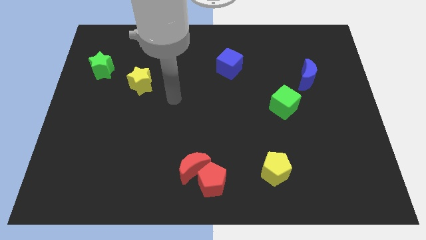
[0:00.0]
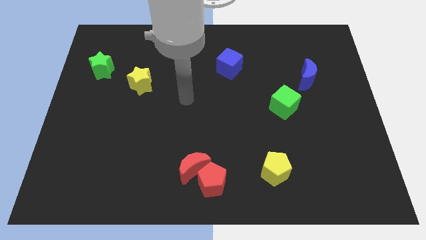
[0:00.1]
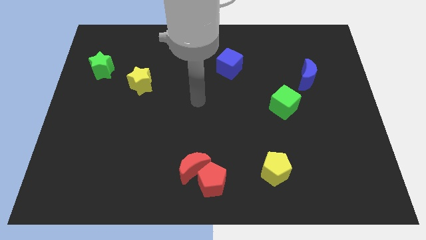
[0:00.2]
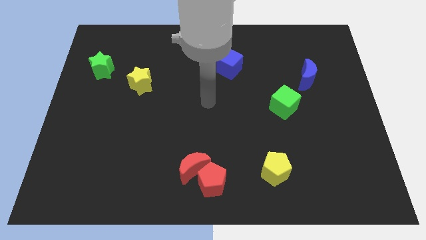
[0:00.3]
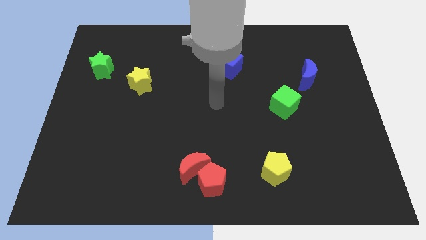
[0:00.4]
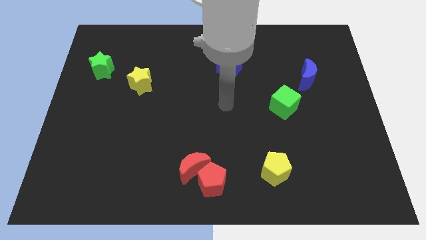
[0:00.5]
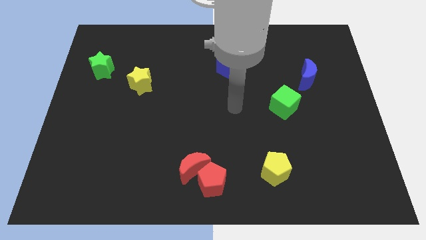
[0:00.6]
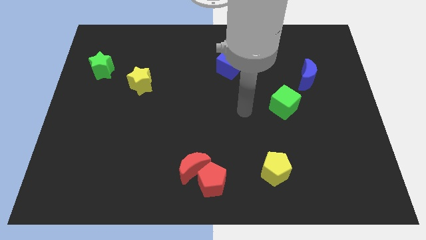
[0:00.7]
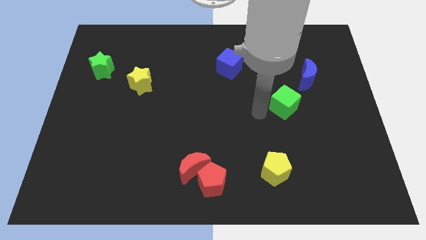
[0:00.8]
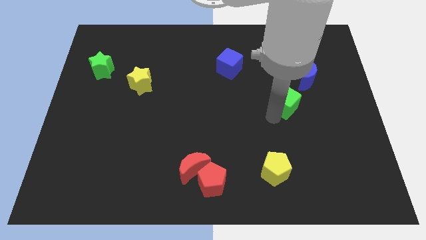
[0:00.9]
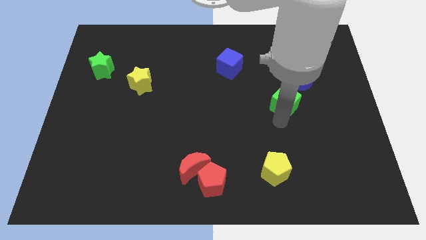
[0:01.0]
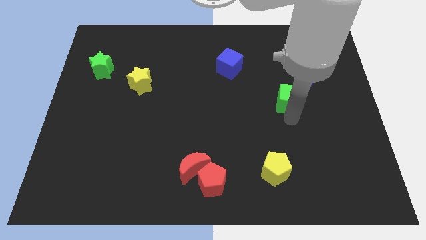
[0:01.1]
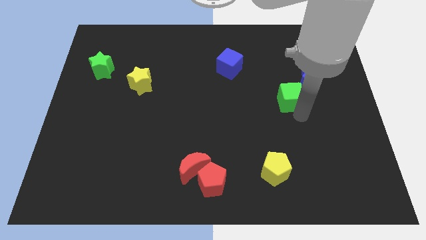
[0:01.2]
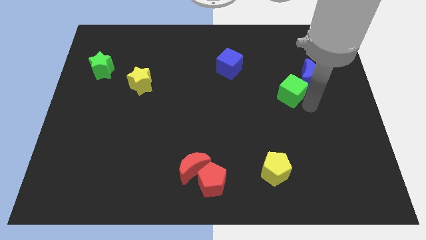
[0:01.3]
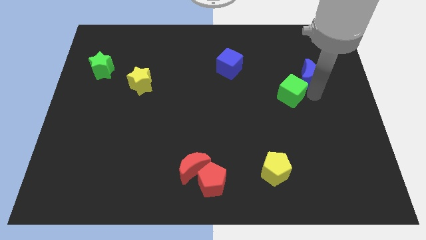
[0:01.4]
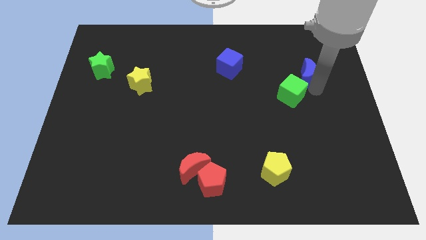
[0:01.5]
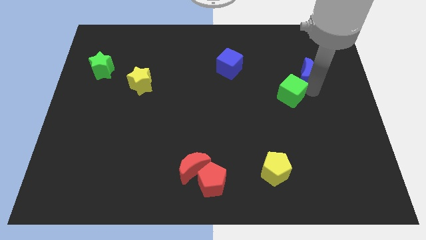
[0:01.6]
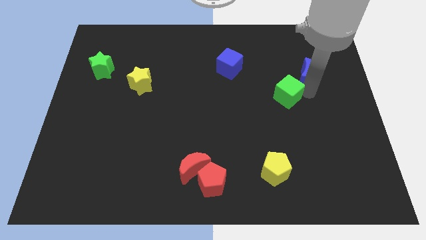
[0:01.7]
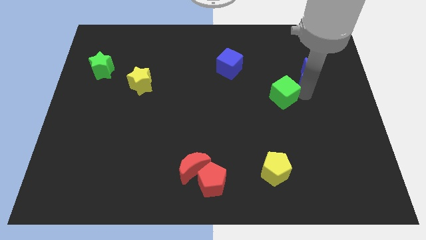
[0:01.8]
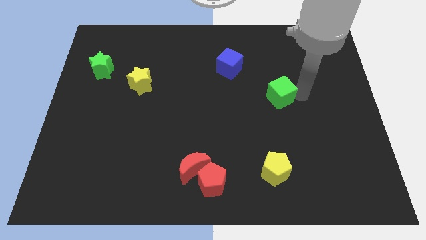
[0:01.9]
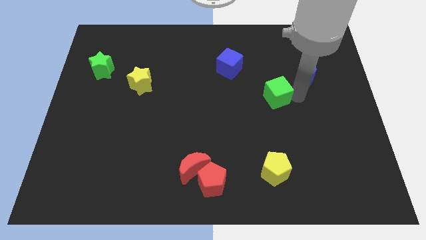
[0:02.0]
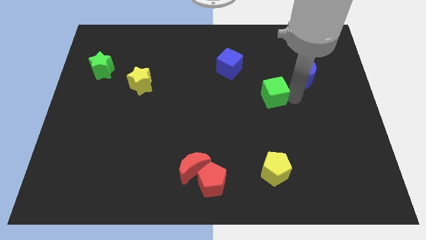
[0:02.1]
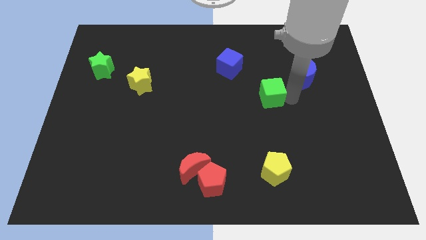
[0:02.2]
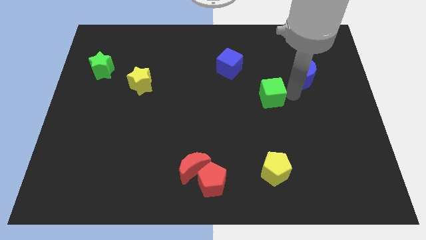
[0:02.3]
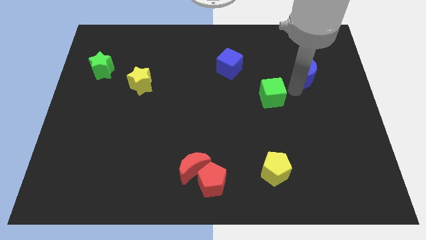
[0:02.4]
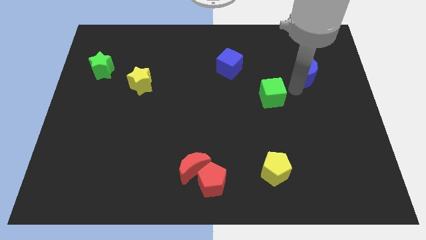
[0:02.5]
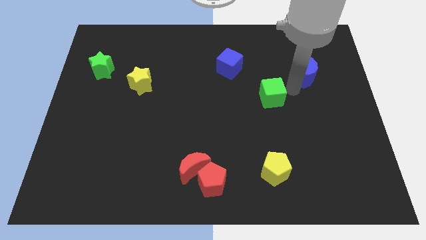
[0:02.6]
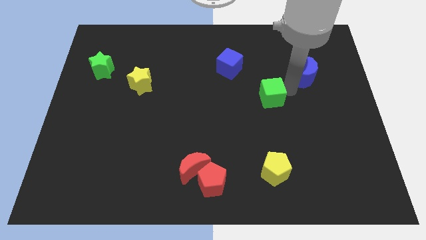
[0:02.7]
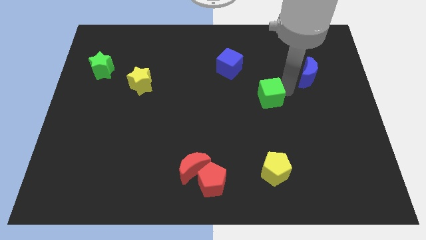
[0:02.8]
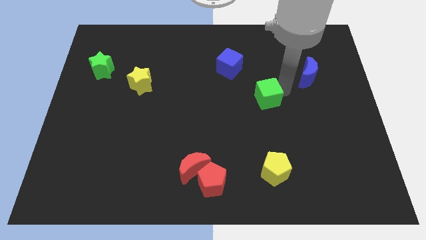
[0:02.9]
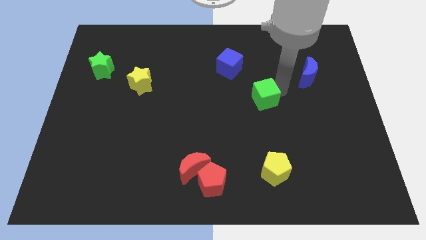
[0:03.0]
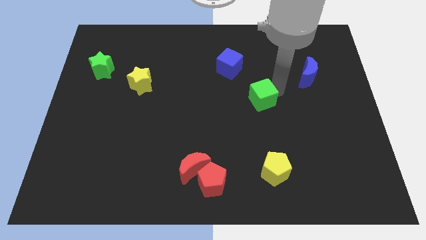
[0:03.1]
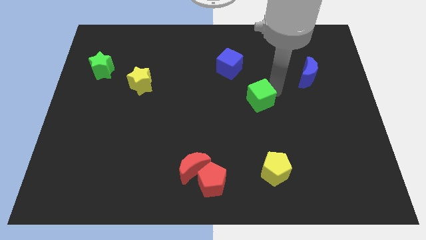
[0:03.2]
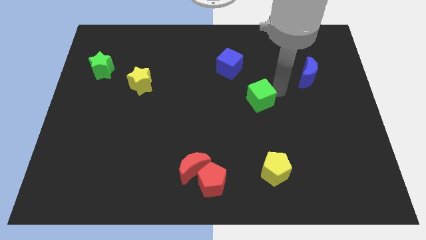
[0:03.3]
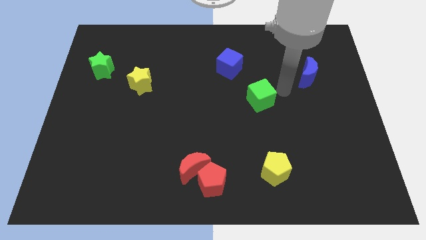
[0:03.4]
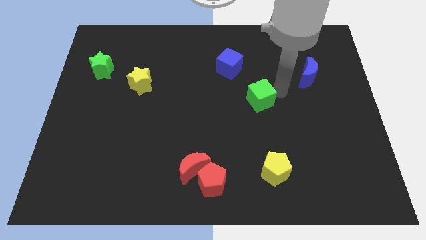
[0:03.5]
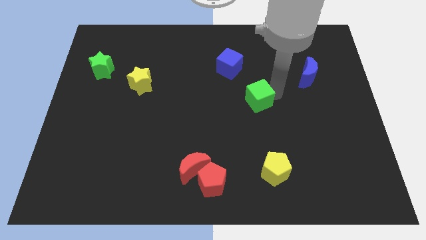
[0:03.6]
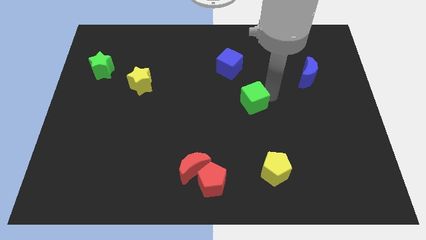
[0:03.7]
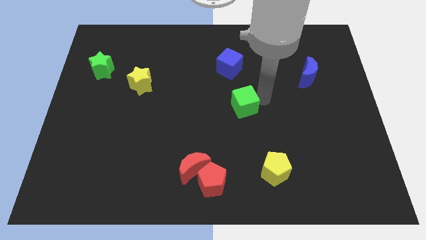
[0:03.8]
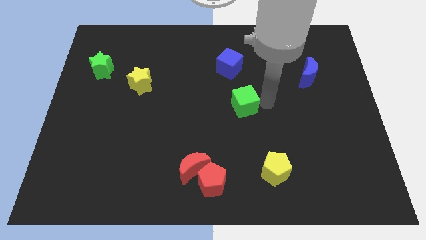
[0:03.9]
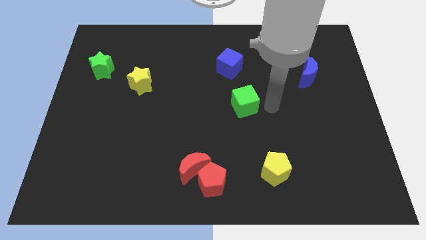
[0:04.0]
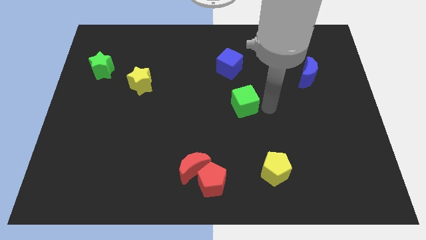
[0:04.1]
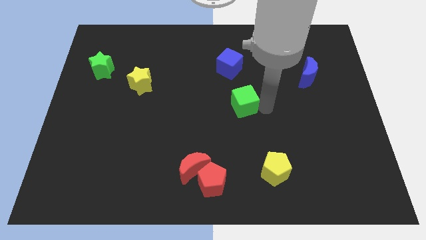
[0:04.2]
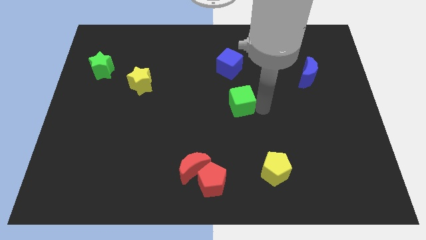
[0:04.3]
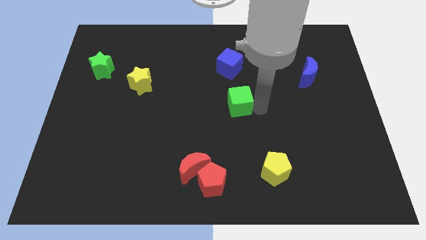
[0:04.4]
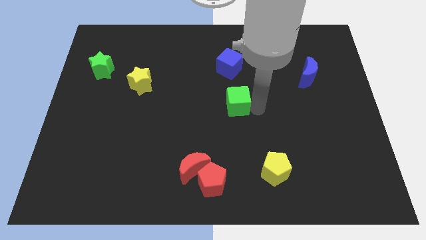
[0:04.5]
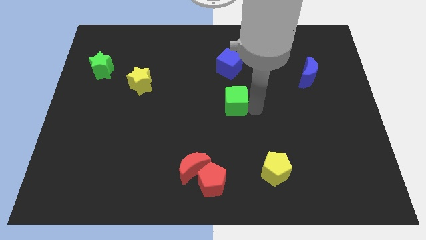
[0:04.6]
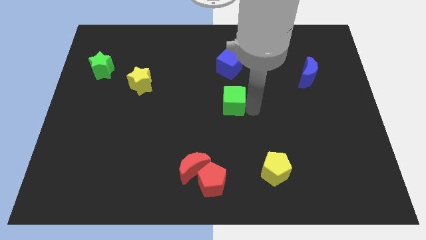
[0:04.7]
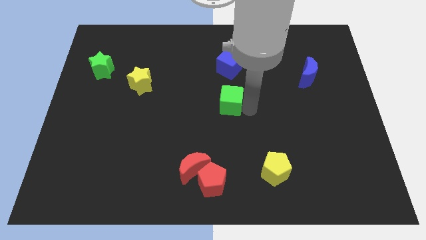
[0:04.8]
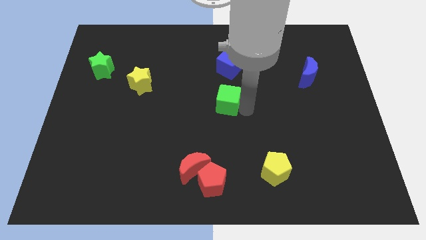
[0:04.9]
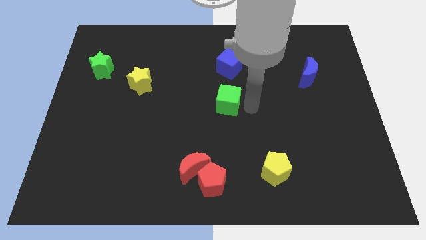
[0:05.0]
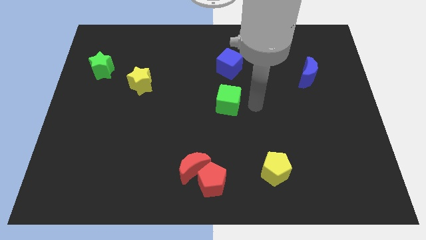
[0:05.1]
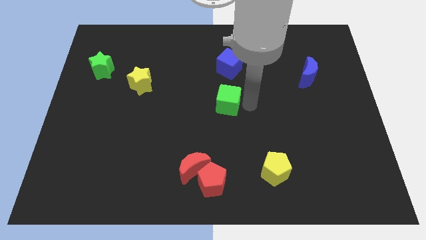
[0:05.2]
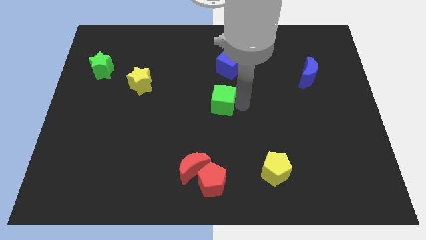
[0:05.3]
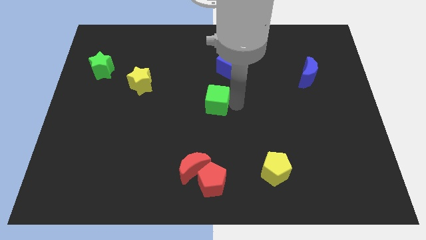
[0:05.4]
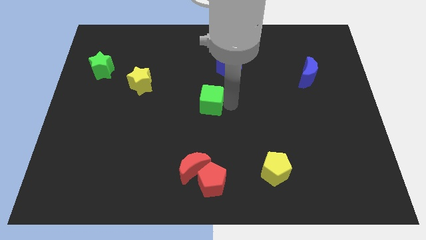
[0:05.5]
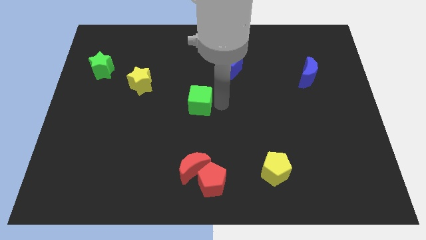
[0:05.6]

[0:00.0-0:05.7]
move the green cube left

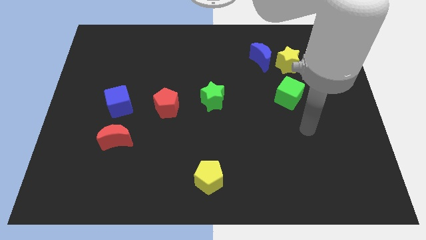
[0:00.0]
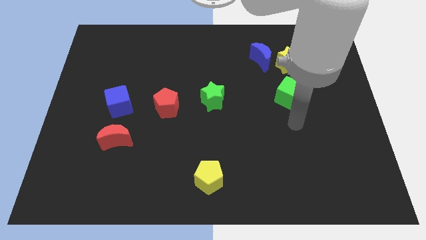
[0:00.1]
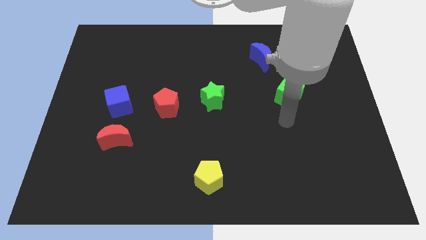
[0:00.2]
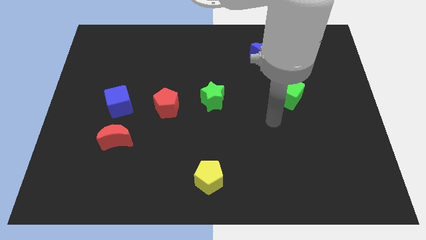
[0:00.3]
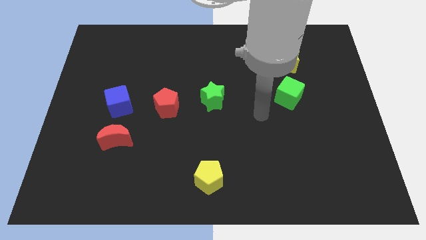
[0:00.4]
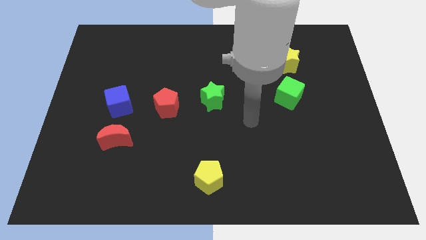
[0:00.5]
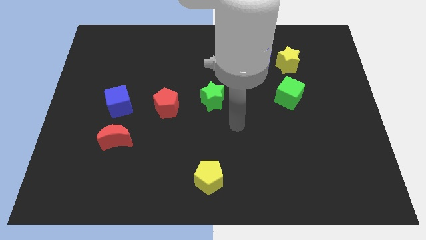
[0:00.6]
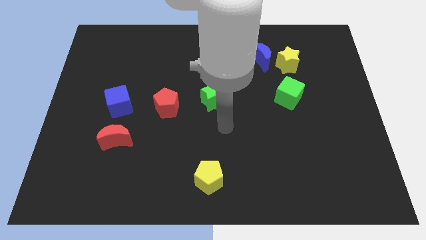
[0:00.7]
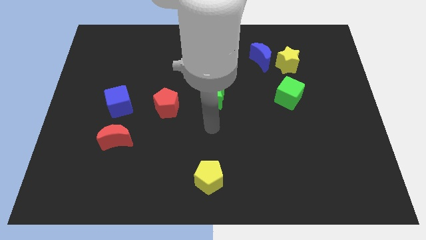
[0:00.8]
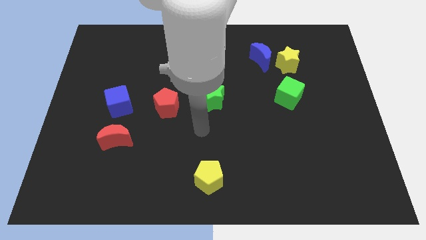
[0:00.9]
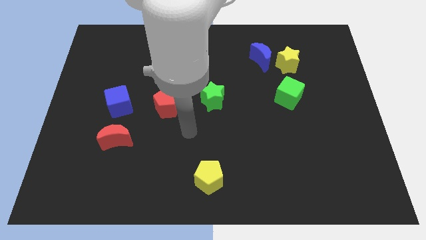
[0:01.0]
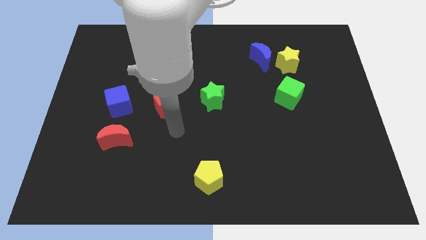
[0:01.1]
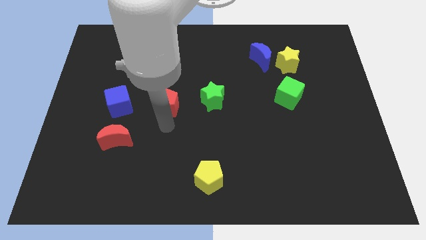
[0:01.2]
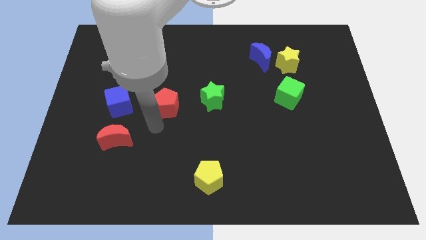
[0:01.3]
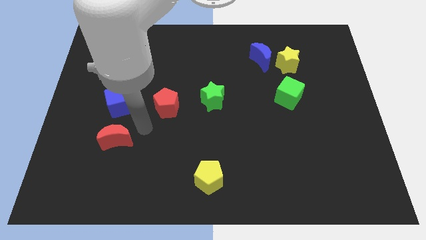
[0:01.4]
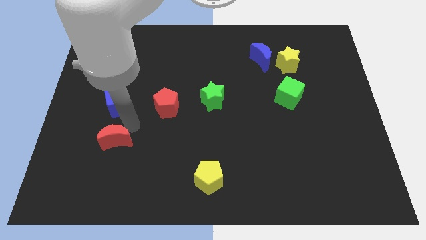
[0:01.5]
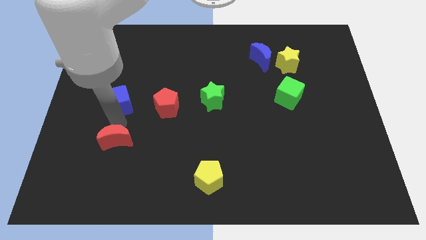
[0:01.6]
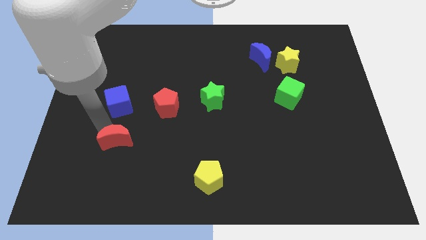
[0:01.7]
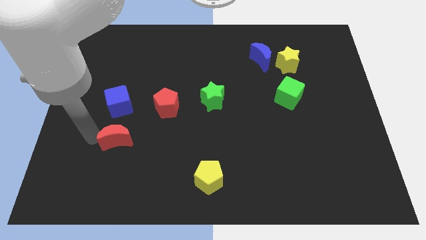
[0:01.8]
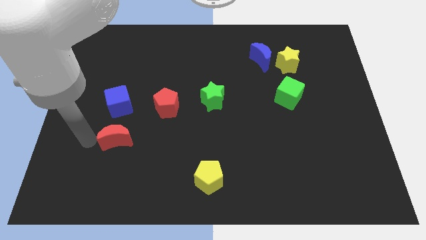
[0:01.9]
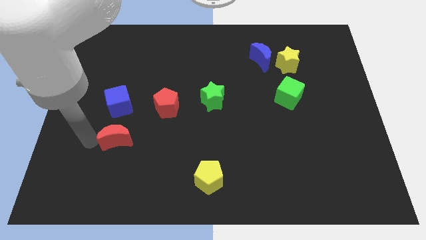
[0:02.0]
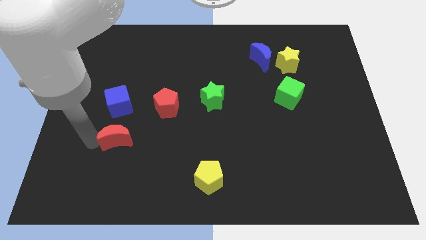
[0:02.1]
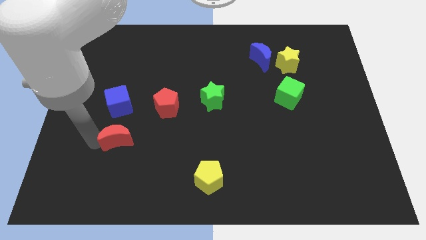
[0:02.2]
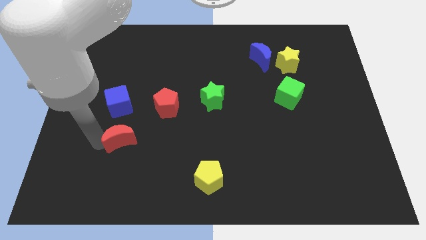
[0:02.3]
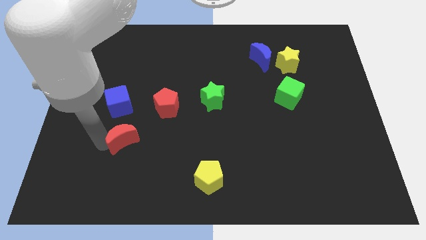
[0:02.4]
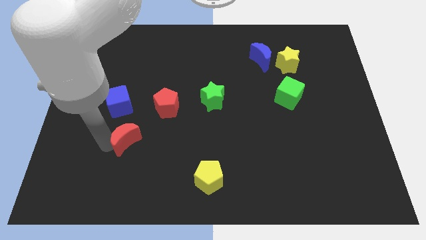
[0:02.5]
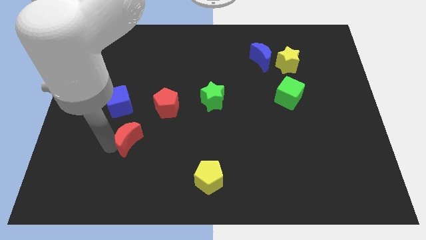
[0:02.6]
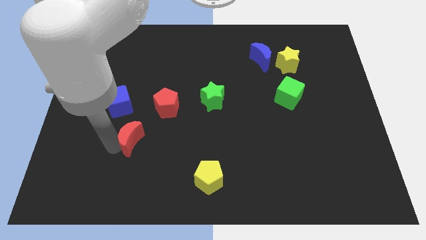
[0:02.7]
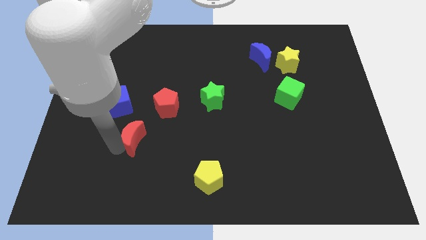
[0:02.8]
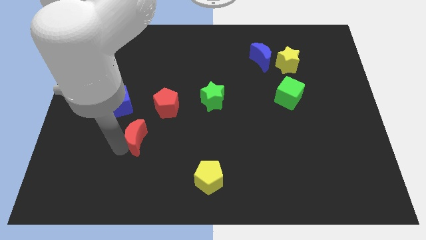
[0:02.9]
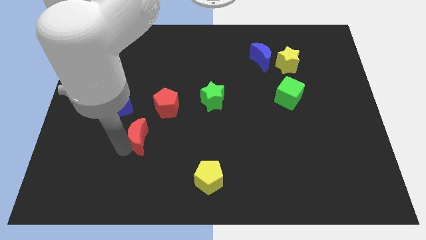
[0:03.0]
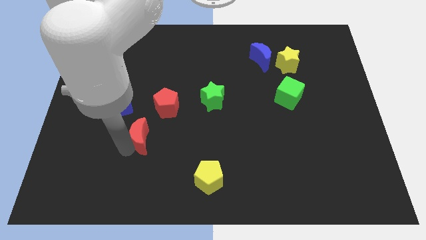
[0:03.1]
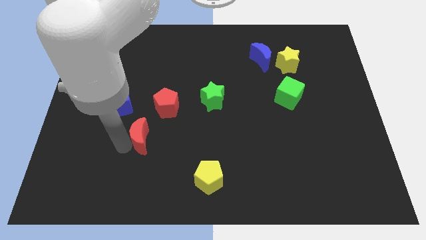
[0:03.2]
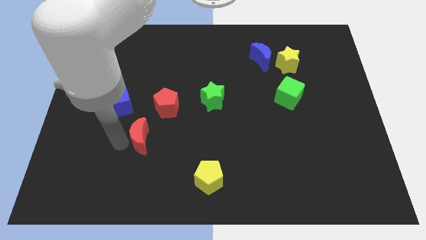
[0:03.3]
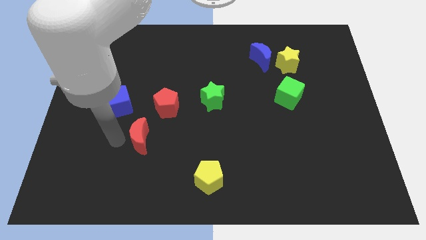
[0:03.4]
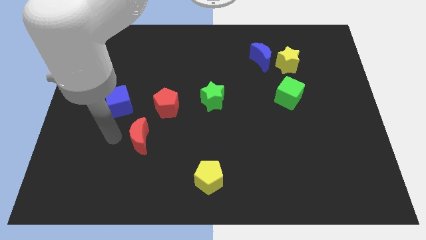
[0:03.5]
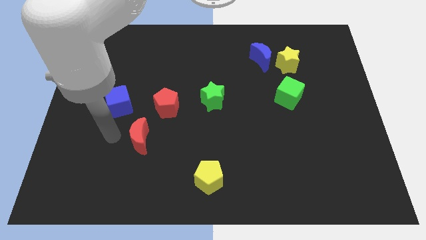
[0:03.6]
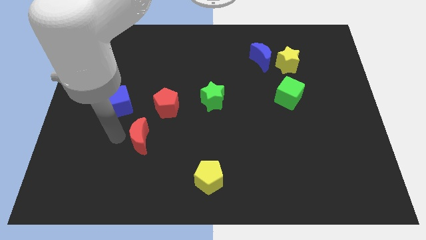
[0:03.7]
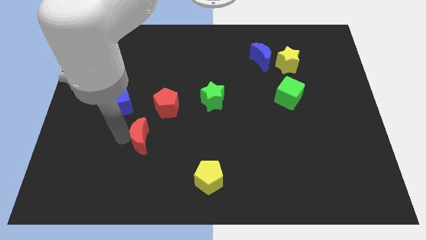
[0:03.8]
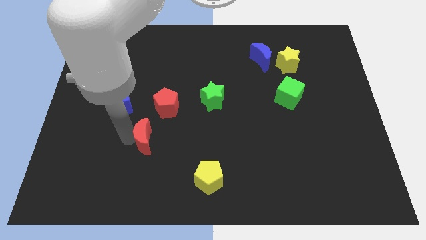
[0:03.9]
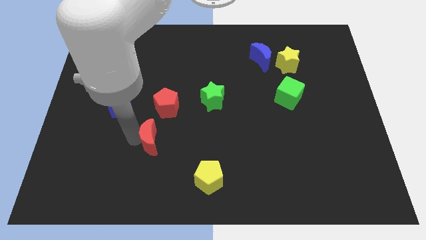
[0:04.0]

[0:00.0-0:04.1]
push the red moon a bit right
